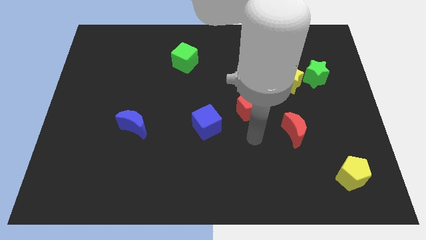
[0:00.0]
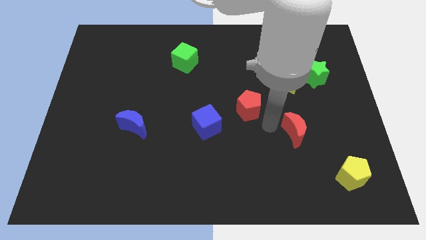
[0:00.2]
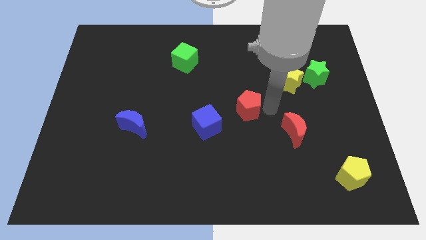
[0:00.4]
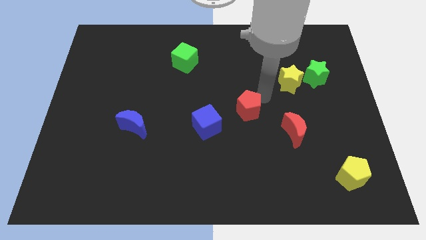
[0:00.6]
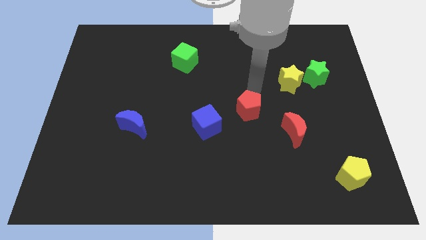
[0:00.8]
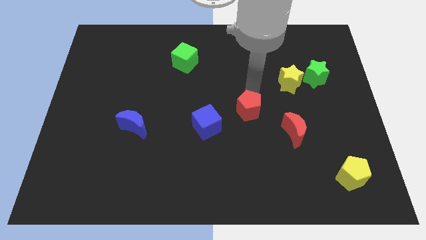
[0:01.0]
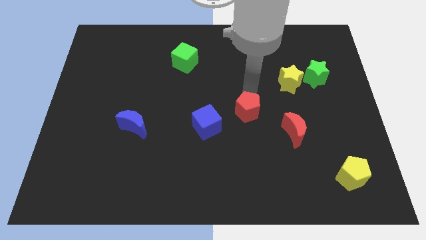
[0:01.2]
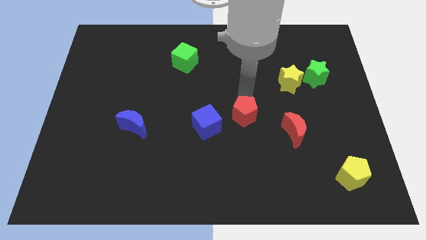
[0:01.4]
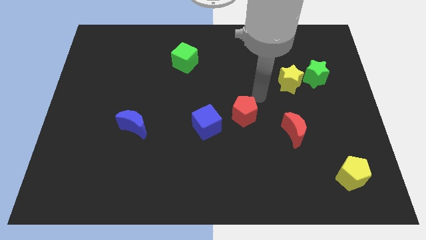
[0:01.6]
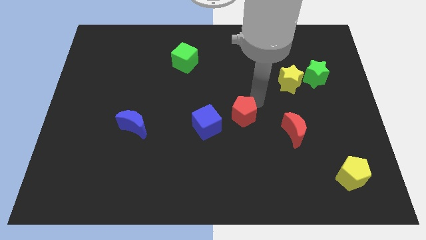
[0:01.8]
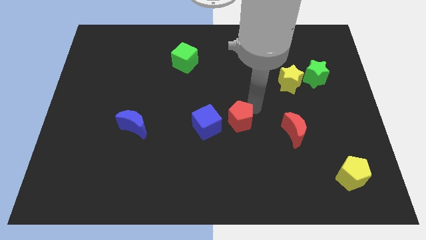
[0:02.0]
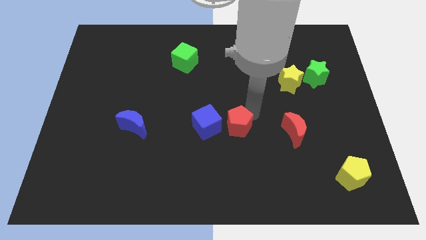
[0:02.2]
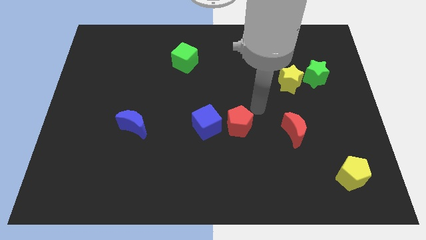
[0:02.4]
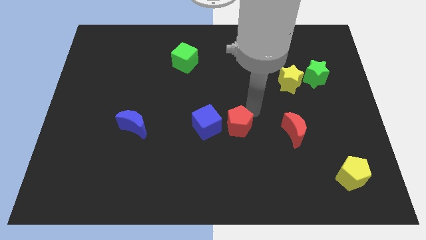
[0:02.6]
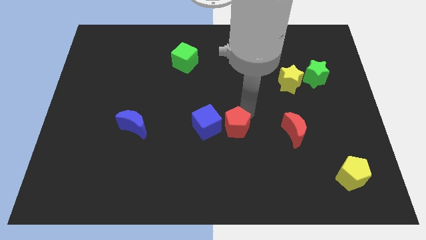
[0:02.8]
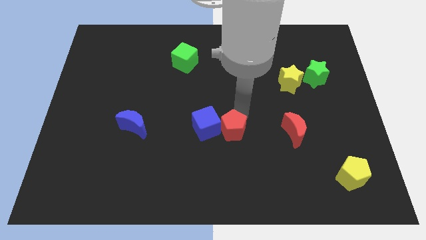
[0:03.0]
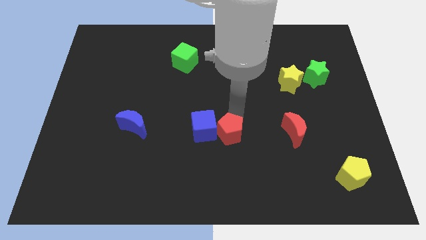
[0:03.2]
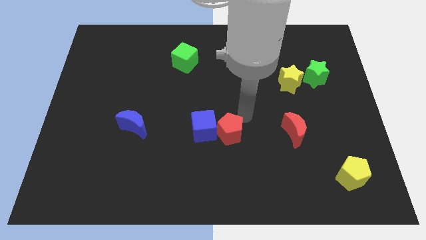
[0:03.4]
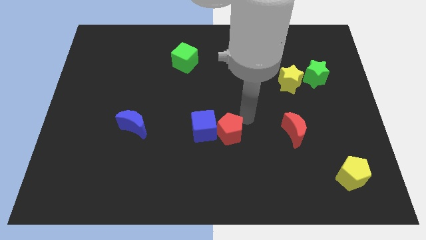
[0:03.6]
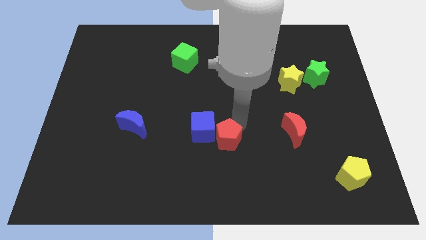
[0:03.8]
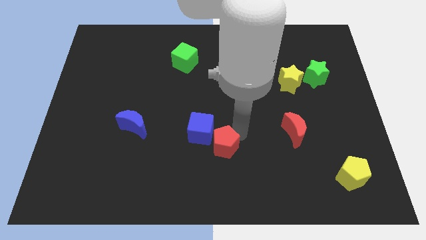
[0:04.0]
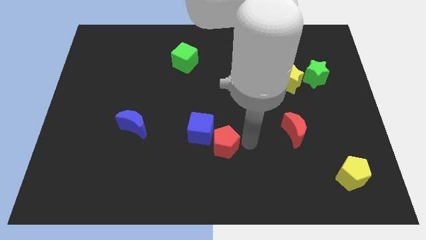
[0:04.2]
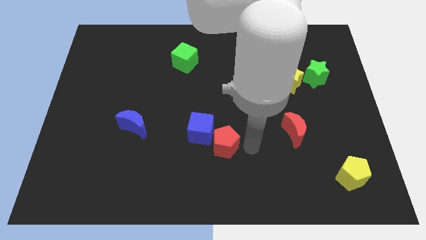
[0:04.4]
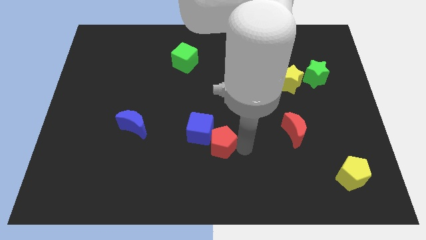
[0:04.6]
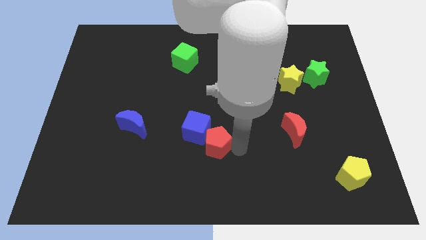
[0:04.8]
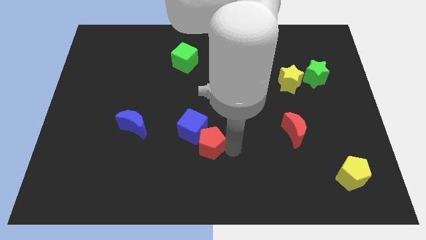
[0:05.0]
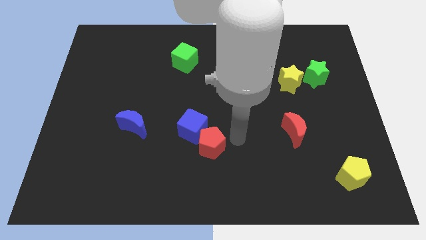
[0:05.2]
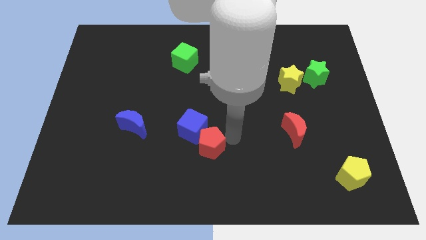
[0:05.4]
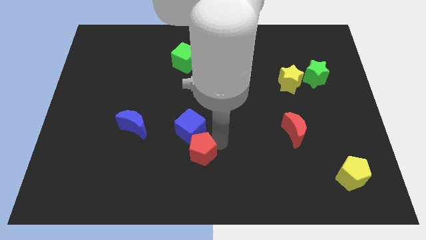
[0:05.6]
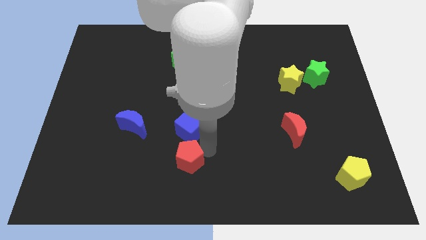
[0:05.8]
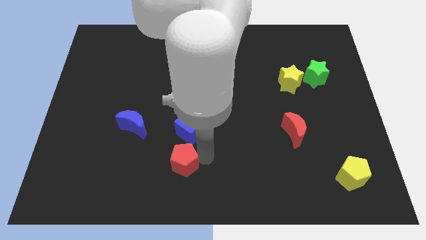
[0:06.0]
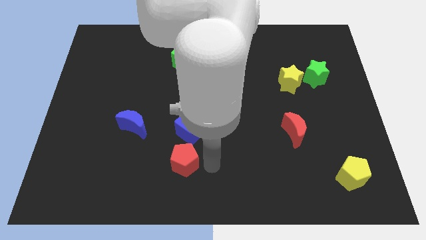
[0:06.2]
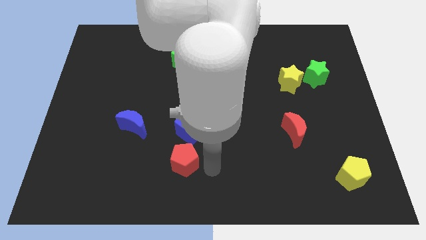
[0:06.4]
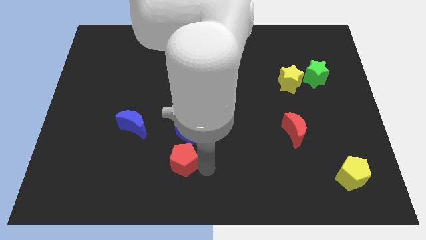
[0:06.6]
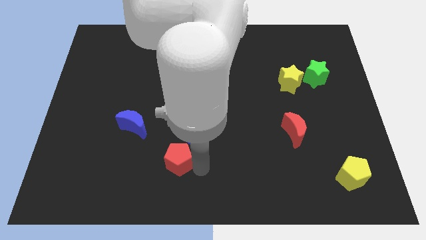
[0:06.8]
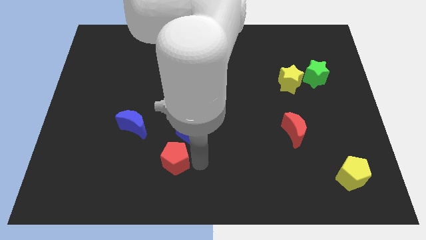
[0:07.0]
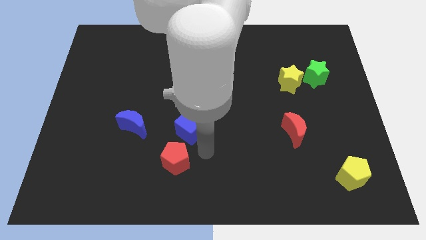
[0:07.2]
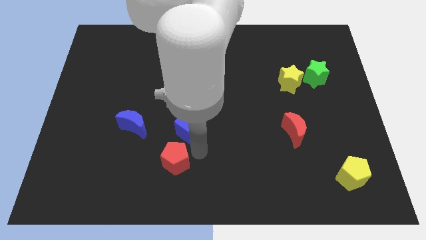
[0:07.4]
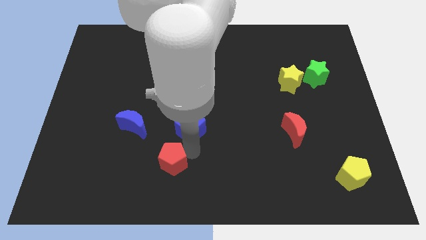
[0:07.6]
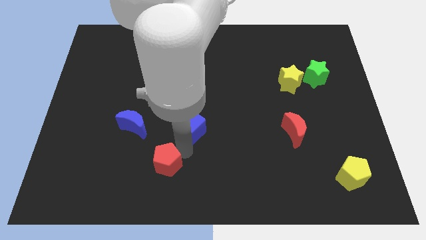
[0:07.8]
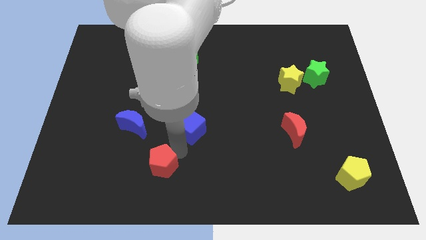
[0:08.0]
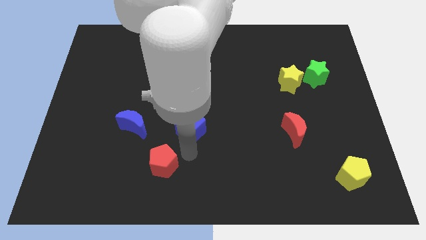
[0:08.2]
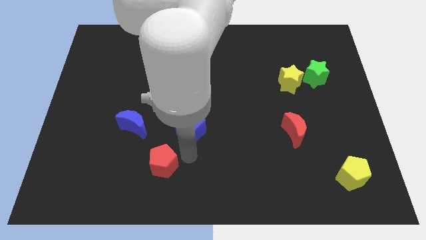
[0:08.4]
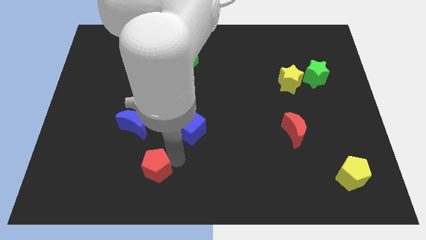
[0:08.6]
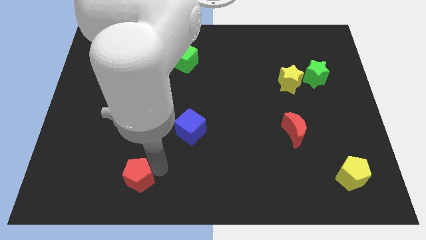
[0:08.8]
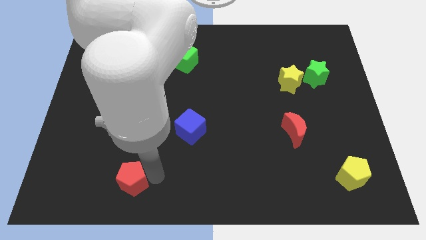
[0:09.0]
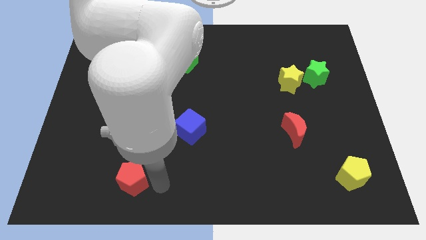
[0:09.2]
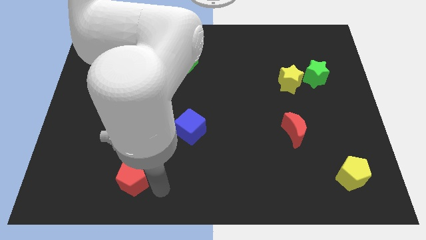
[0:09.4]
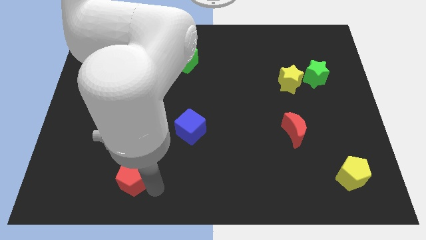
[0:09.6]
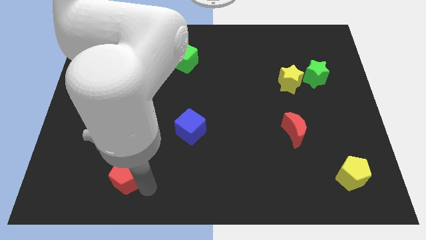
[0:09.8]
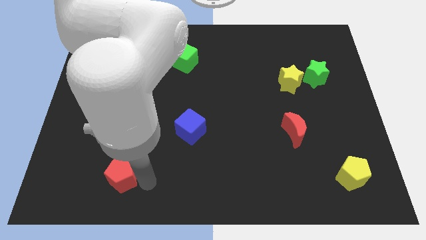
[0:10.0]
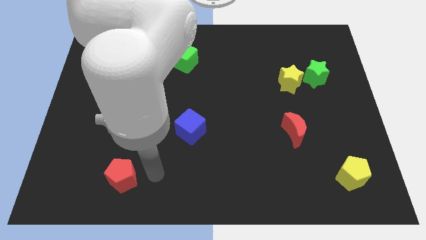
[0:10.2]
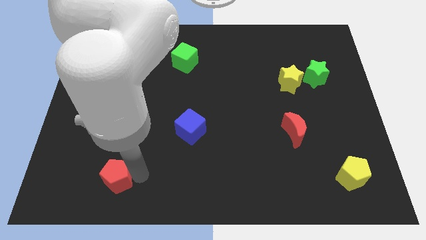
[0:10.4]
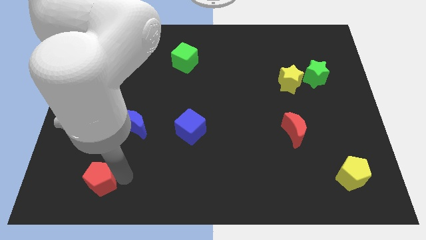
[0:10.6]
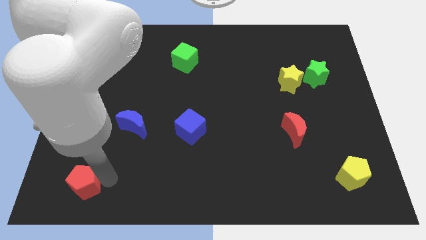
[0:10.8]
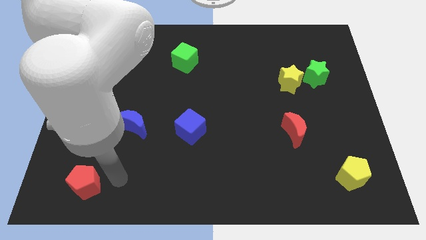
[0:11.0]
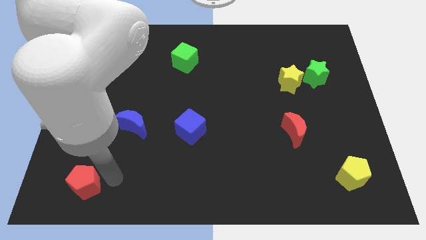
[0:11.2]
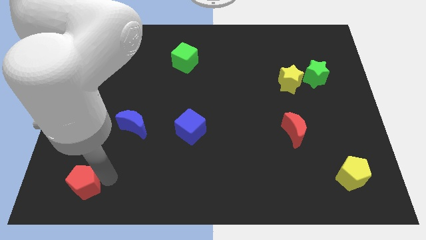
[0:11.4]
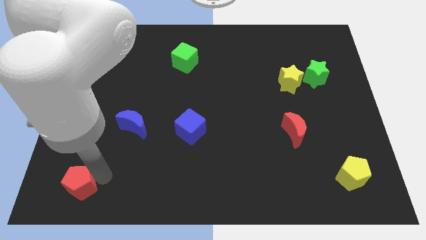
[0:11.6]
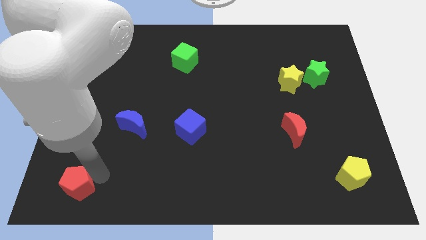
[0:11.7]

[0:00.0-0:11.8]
slide the red pentagon to the bottom left
